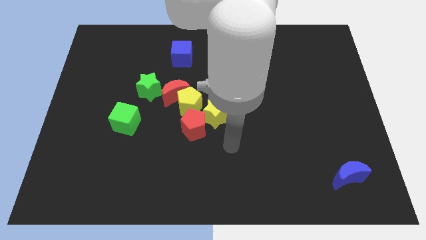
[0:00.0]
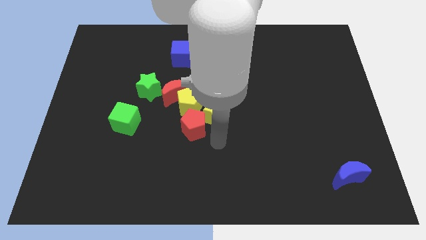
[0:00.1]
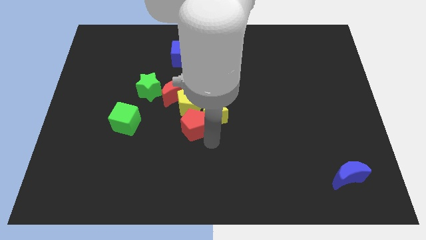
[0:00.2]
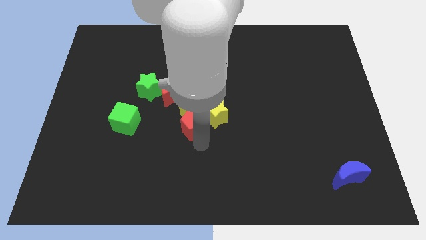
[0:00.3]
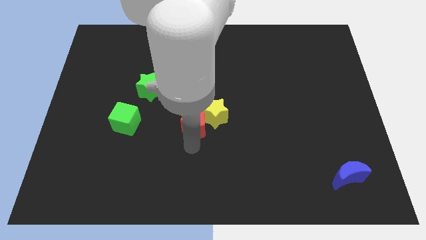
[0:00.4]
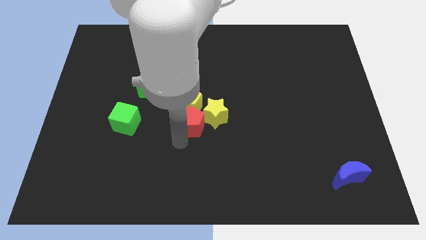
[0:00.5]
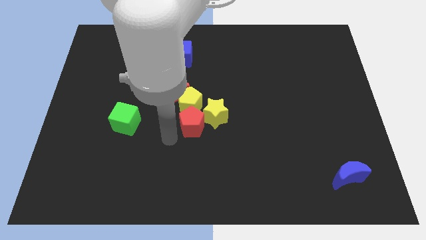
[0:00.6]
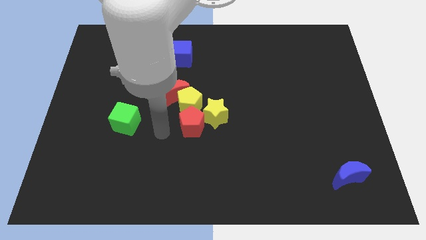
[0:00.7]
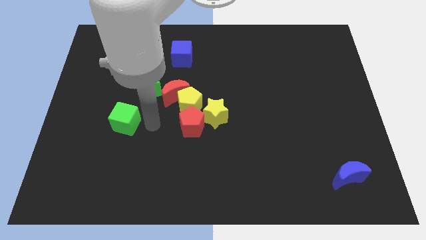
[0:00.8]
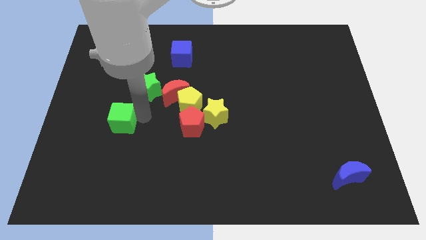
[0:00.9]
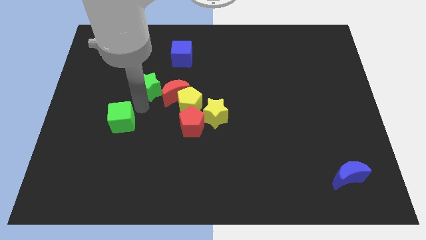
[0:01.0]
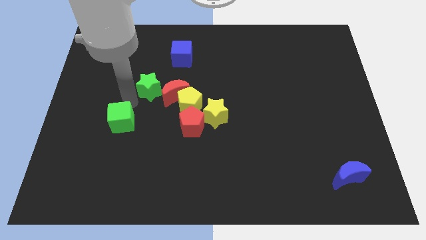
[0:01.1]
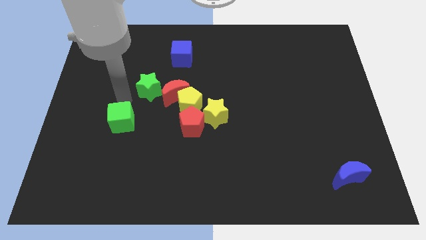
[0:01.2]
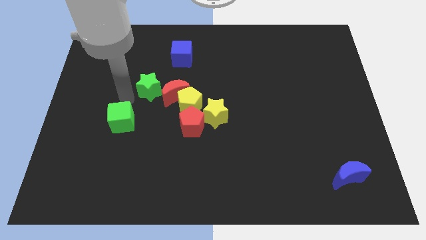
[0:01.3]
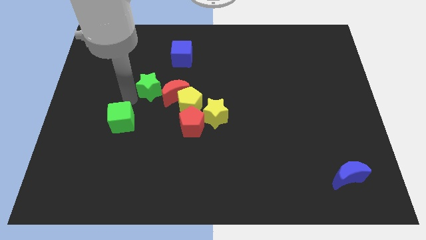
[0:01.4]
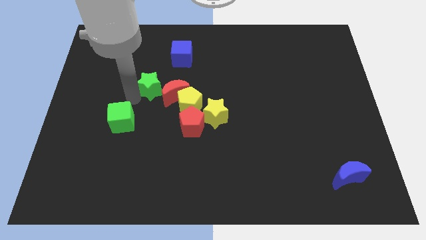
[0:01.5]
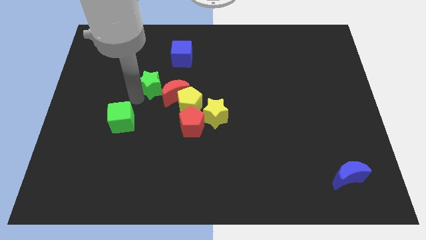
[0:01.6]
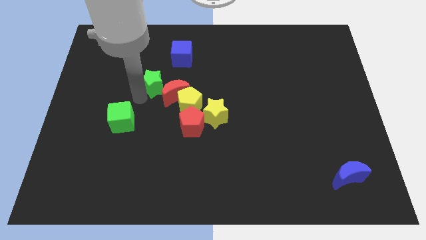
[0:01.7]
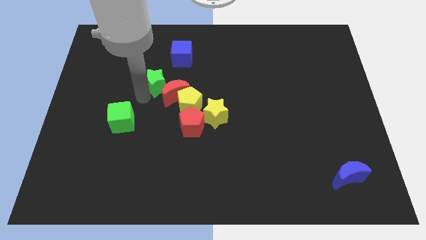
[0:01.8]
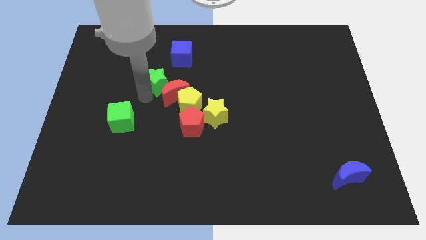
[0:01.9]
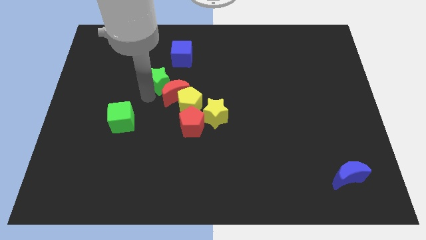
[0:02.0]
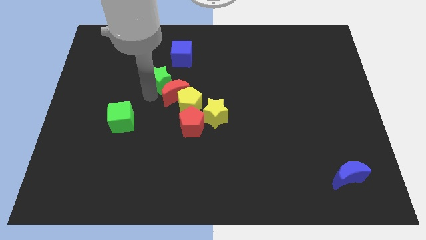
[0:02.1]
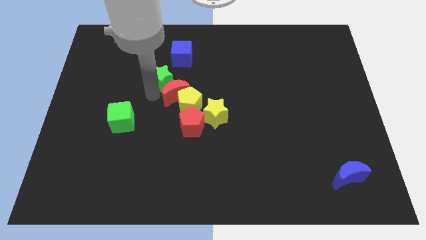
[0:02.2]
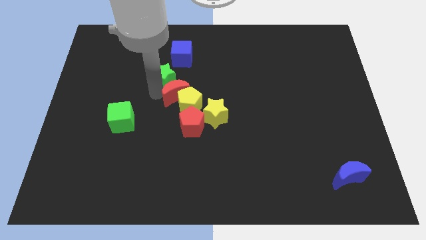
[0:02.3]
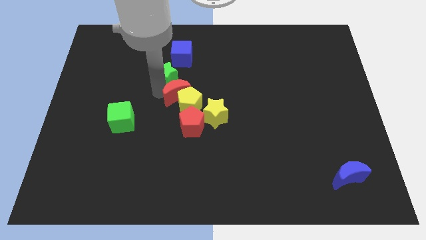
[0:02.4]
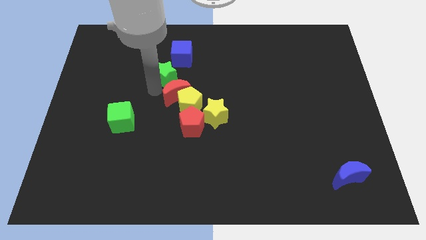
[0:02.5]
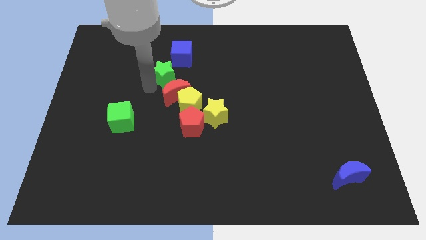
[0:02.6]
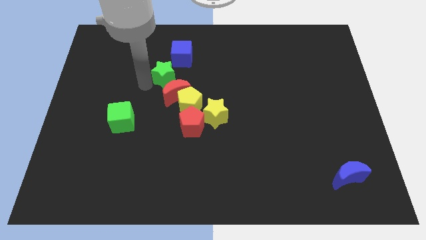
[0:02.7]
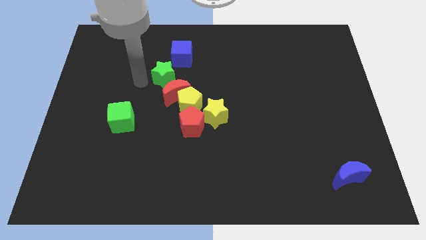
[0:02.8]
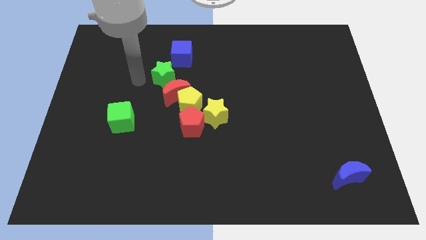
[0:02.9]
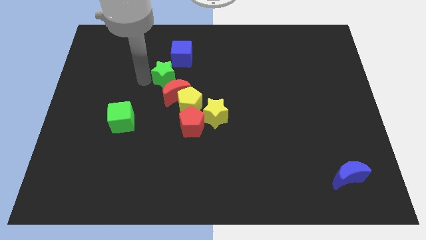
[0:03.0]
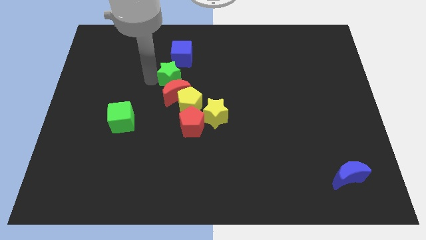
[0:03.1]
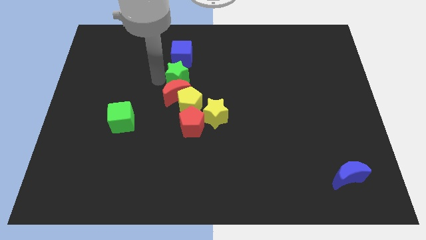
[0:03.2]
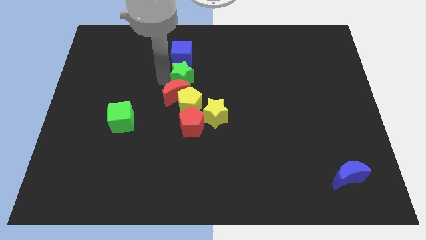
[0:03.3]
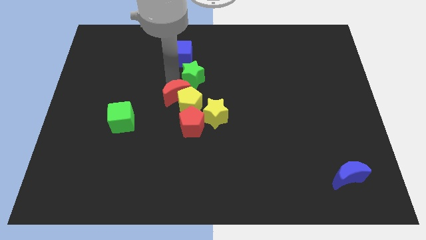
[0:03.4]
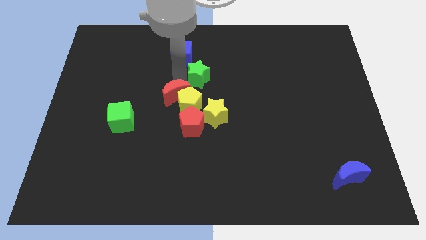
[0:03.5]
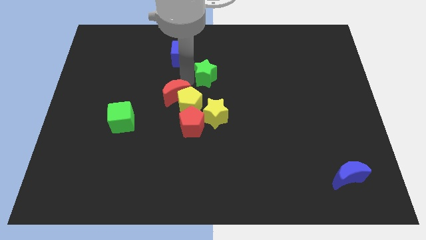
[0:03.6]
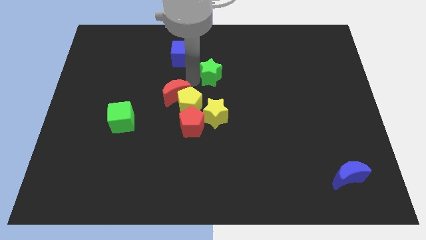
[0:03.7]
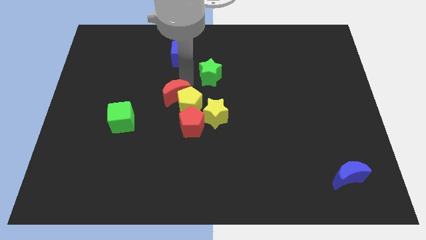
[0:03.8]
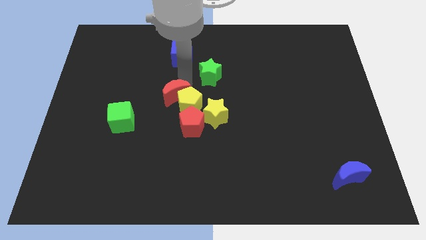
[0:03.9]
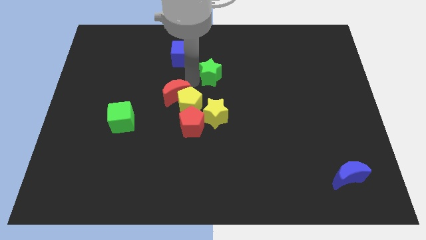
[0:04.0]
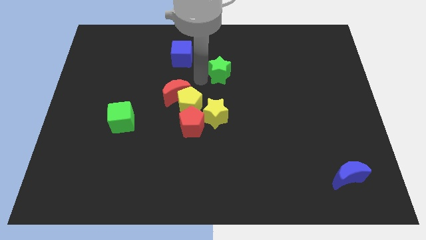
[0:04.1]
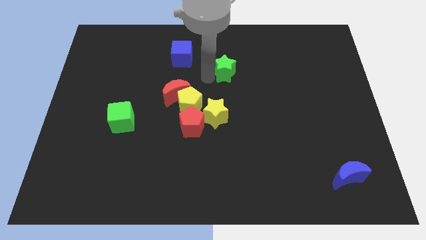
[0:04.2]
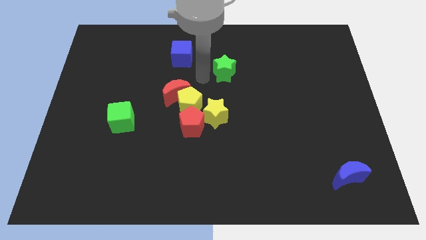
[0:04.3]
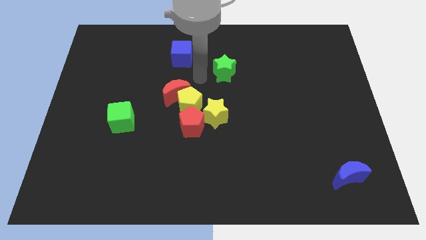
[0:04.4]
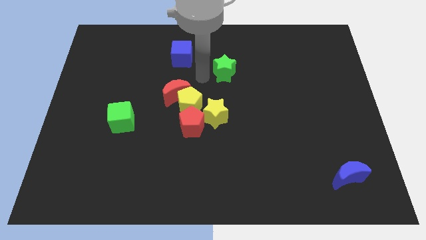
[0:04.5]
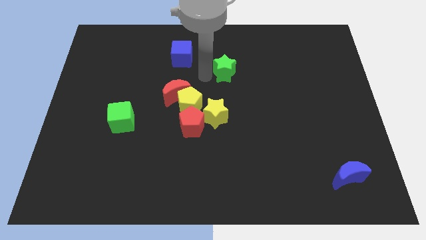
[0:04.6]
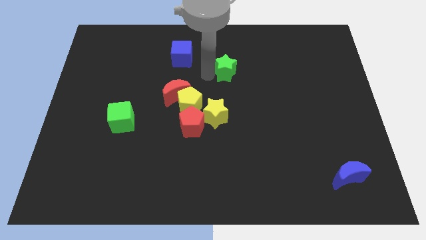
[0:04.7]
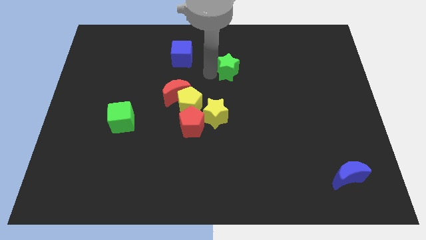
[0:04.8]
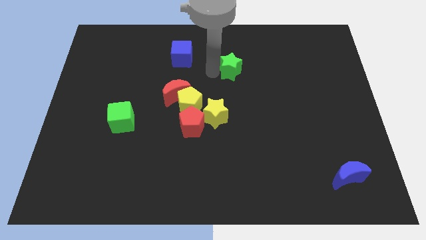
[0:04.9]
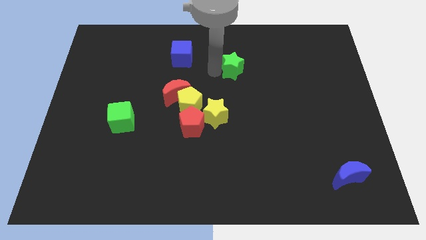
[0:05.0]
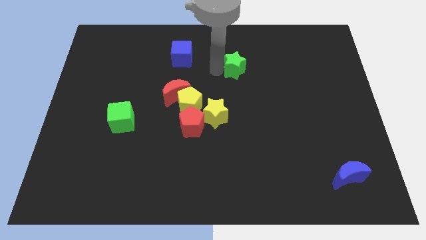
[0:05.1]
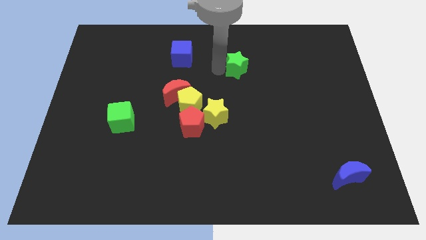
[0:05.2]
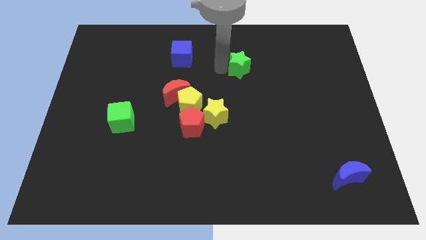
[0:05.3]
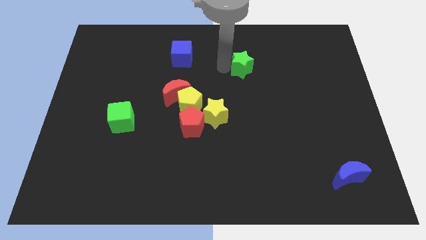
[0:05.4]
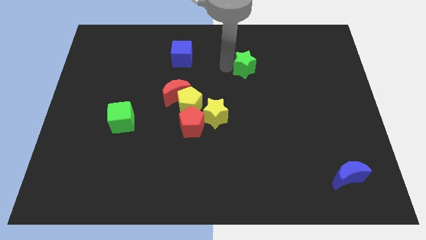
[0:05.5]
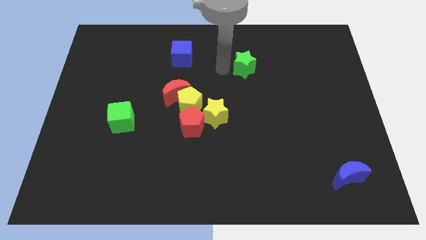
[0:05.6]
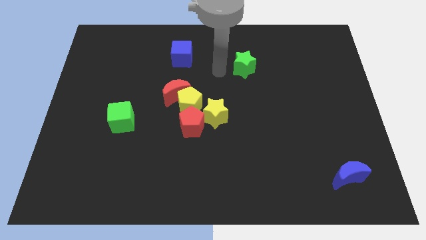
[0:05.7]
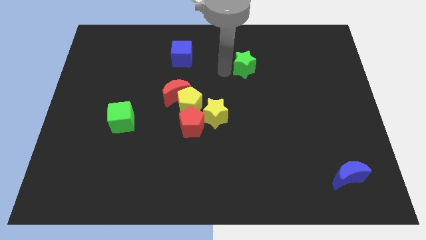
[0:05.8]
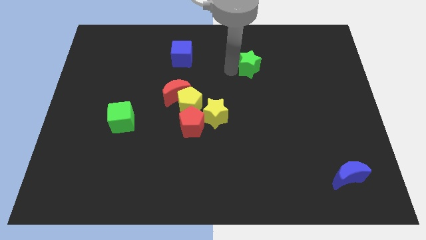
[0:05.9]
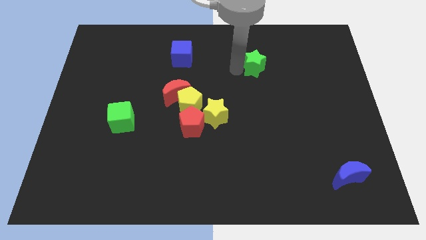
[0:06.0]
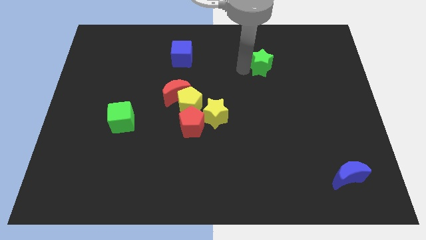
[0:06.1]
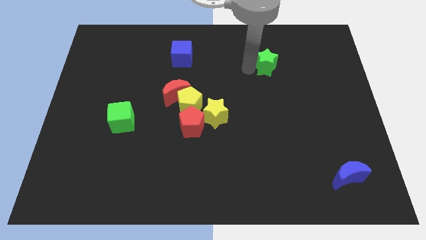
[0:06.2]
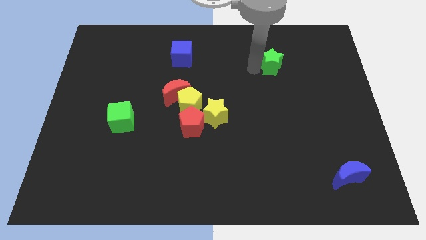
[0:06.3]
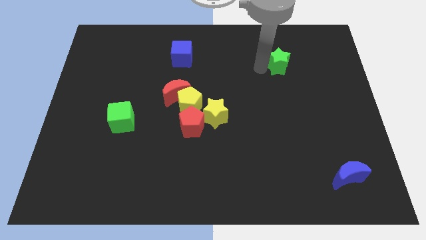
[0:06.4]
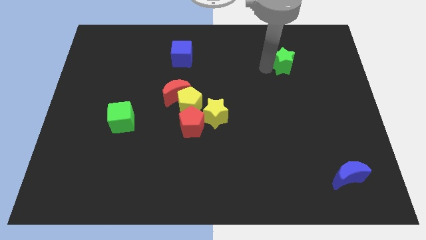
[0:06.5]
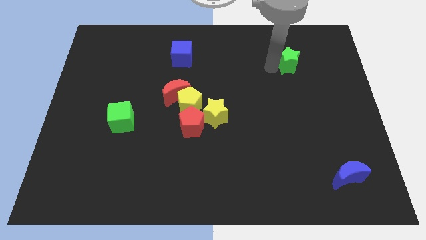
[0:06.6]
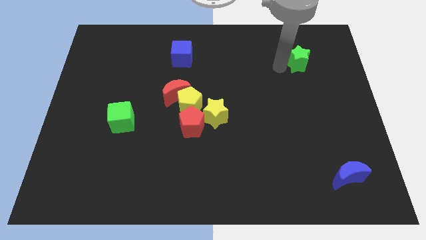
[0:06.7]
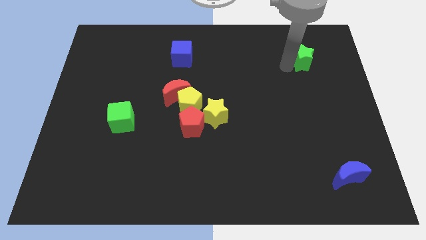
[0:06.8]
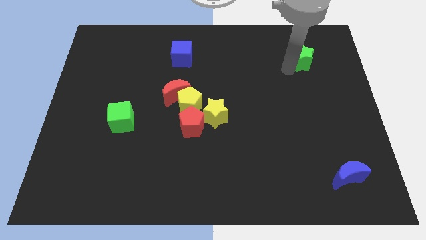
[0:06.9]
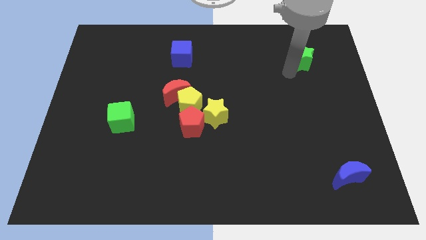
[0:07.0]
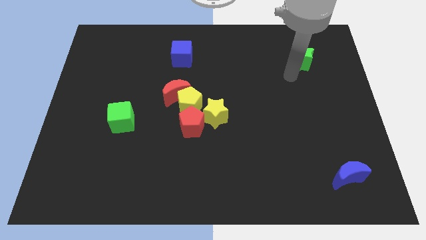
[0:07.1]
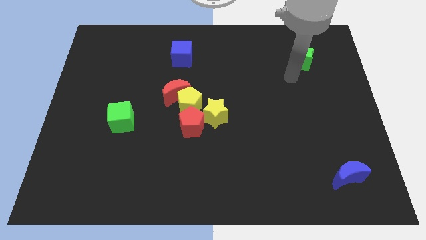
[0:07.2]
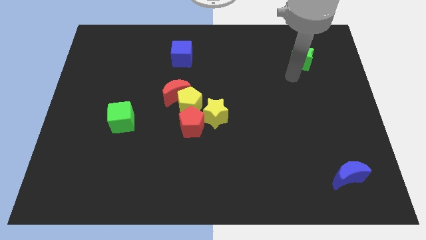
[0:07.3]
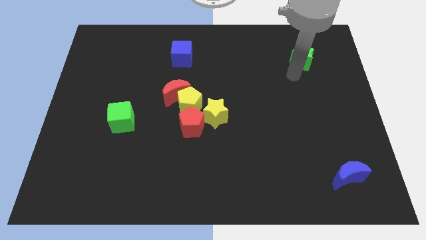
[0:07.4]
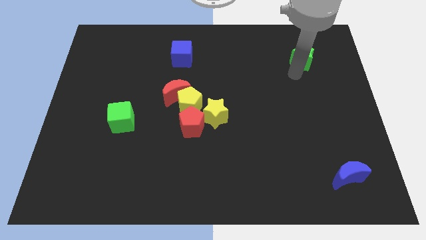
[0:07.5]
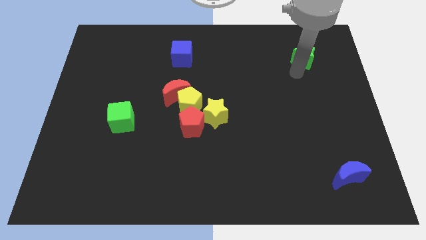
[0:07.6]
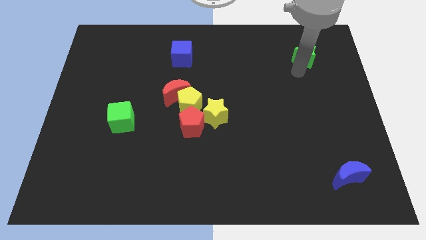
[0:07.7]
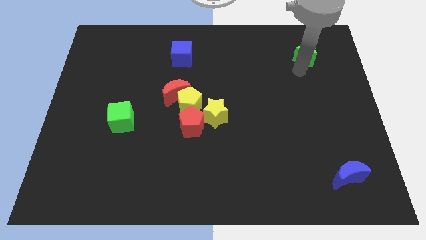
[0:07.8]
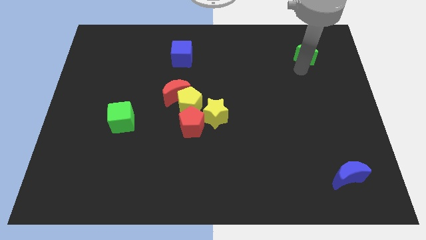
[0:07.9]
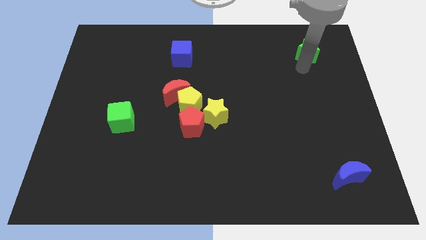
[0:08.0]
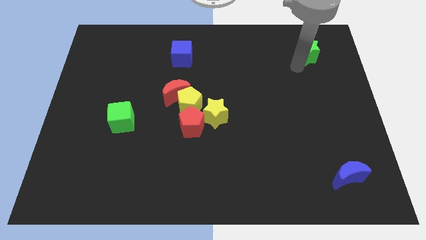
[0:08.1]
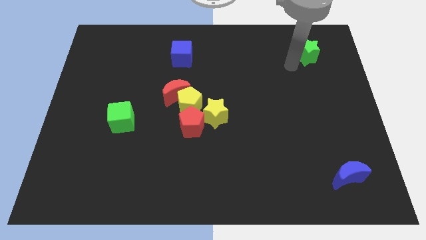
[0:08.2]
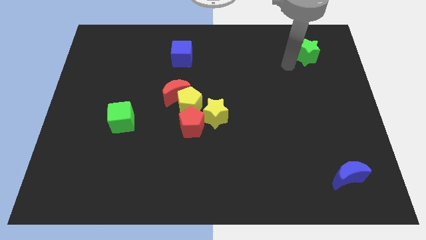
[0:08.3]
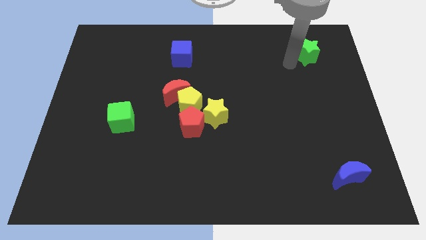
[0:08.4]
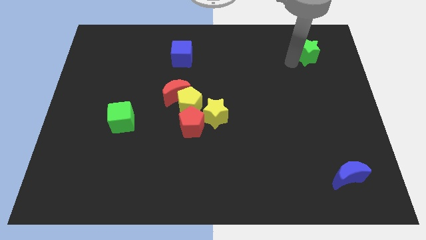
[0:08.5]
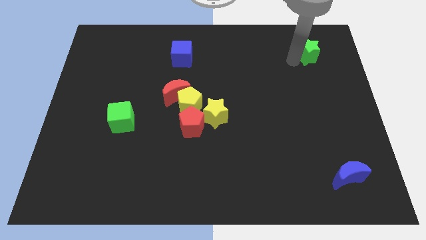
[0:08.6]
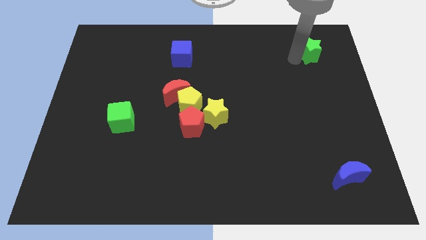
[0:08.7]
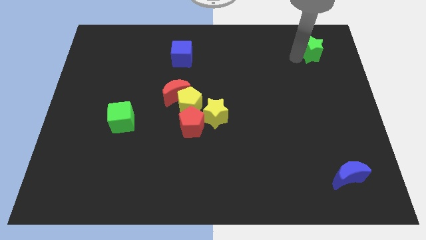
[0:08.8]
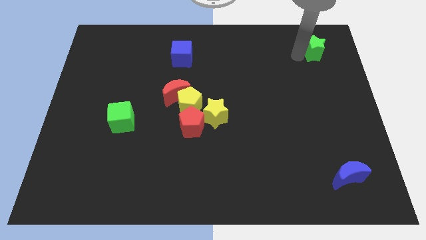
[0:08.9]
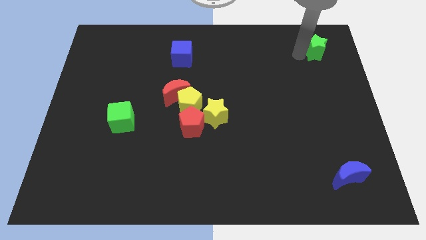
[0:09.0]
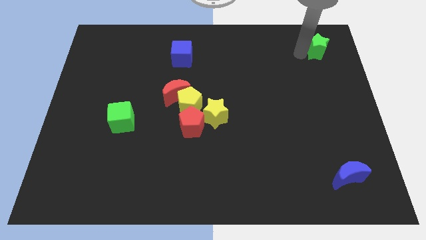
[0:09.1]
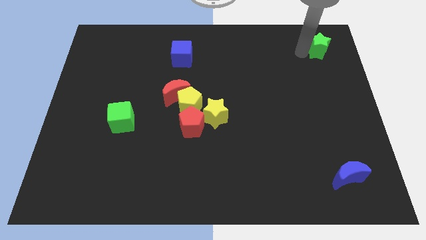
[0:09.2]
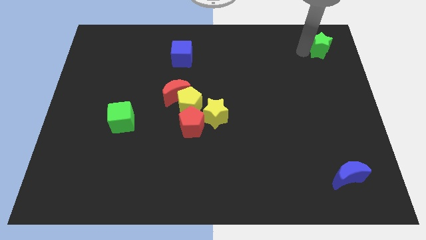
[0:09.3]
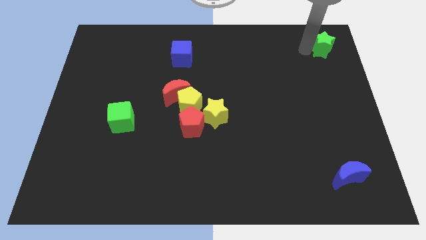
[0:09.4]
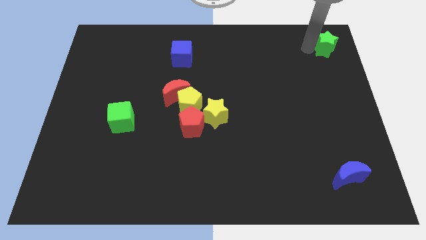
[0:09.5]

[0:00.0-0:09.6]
push the green star to the upper right corner
